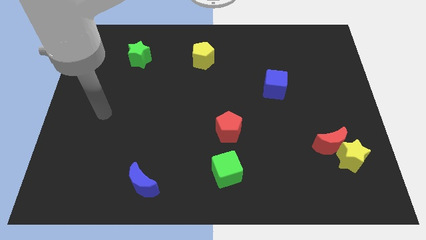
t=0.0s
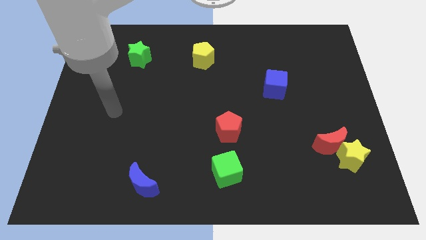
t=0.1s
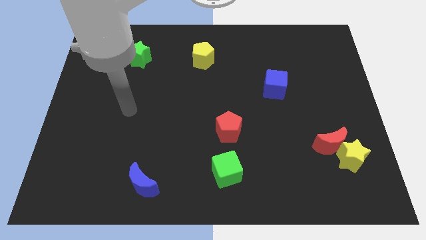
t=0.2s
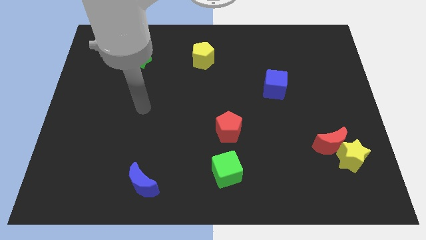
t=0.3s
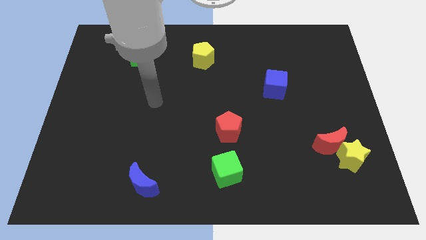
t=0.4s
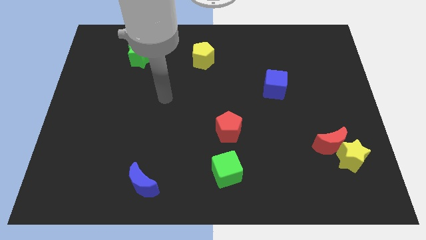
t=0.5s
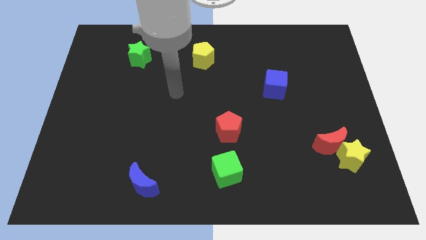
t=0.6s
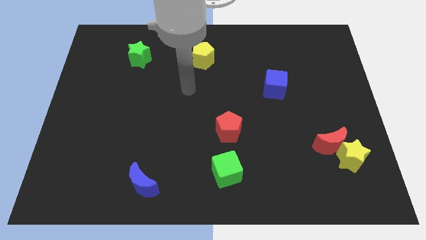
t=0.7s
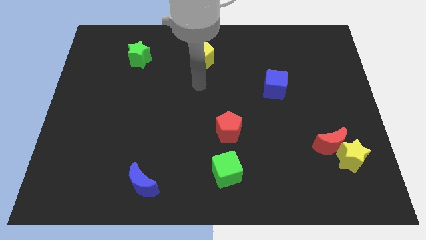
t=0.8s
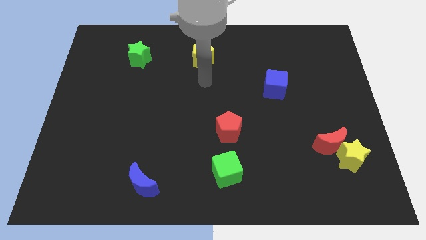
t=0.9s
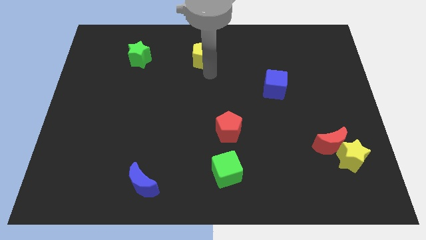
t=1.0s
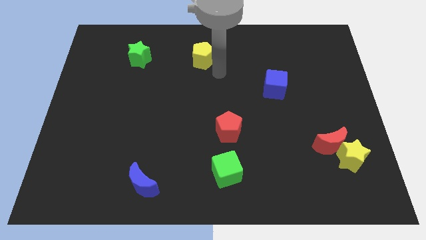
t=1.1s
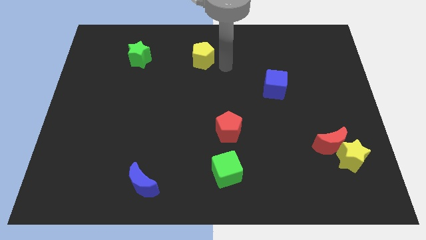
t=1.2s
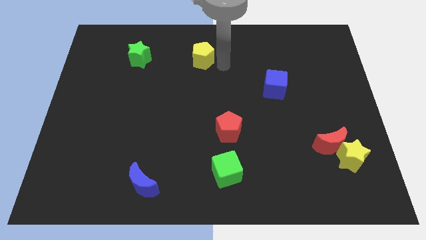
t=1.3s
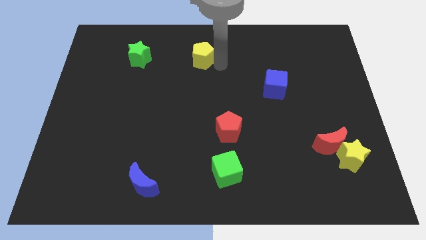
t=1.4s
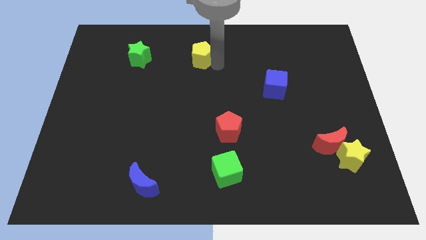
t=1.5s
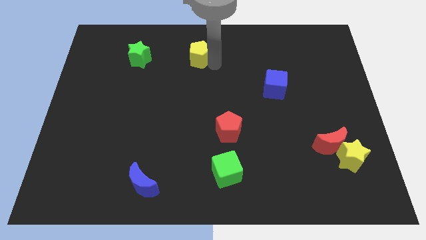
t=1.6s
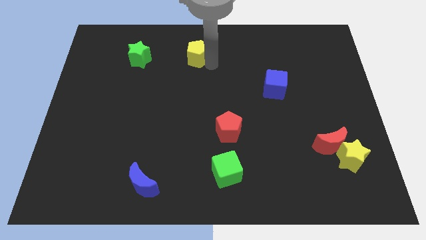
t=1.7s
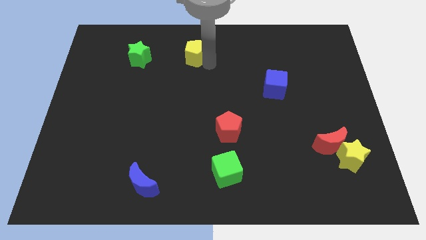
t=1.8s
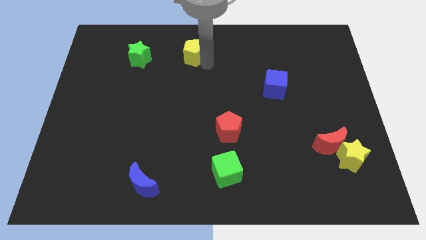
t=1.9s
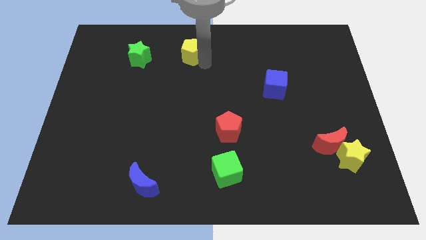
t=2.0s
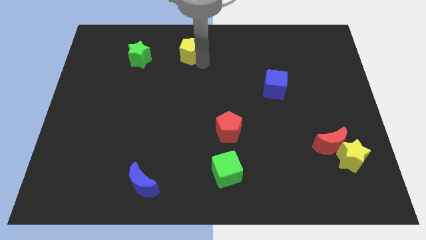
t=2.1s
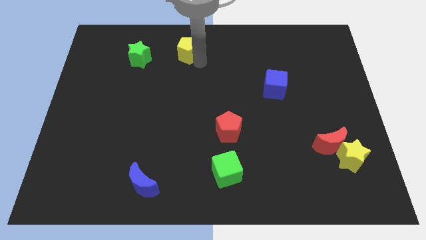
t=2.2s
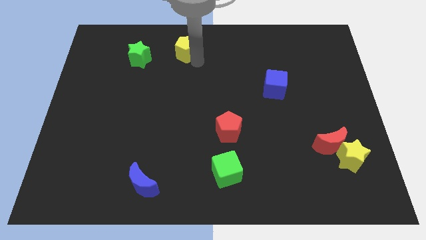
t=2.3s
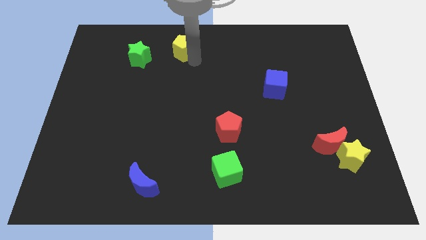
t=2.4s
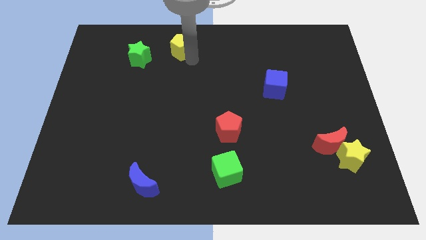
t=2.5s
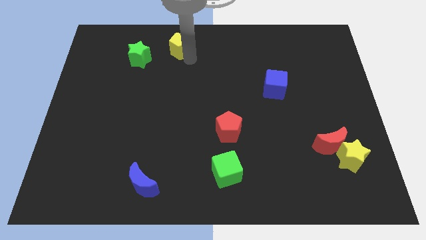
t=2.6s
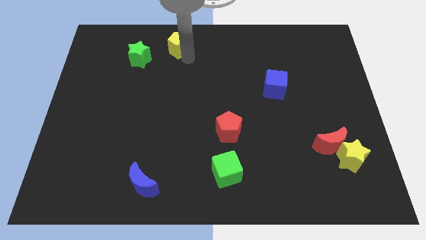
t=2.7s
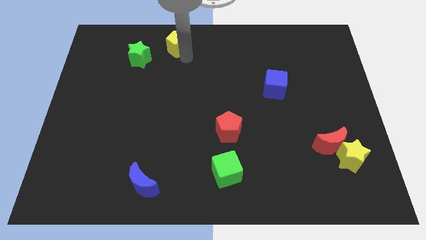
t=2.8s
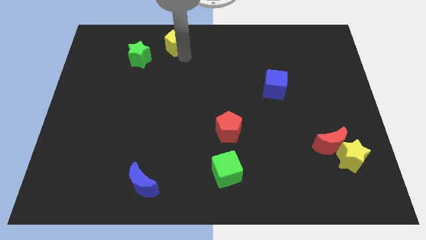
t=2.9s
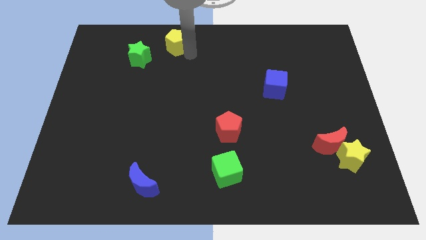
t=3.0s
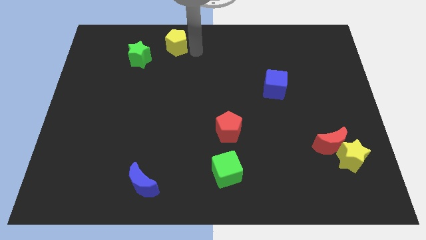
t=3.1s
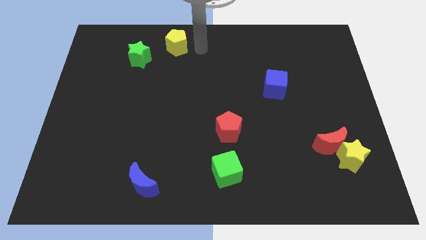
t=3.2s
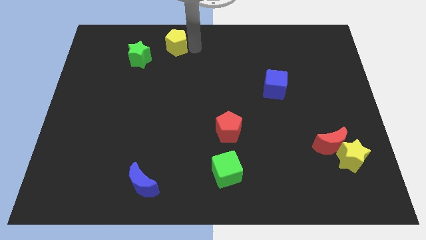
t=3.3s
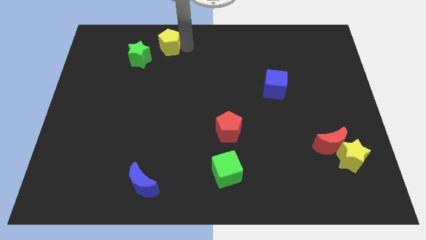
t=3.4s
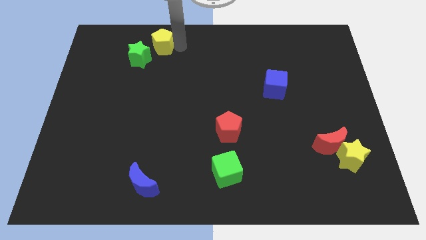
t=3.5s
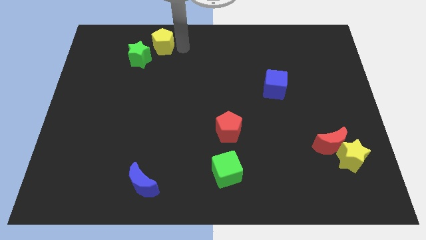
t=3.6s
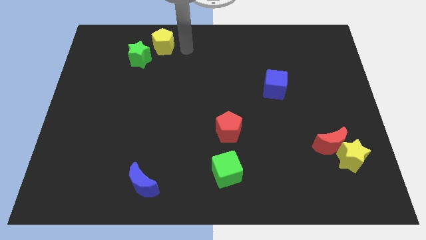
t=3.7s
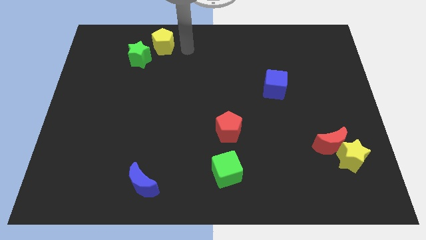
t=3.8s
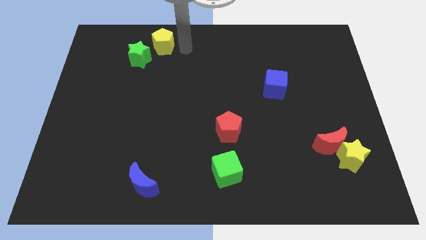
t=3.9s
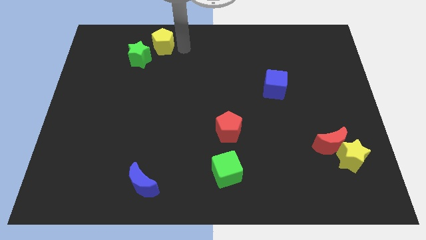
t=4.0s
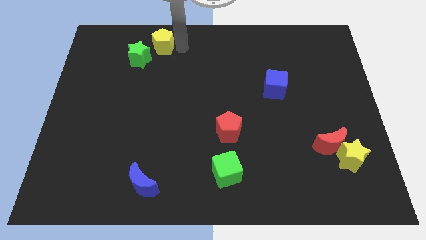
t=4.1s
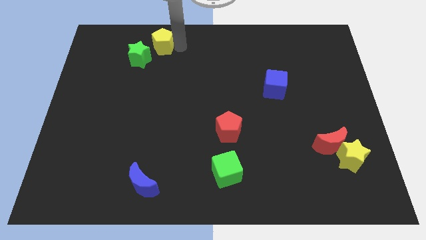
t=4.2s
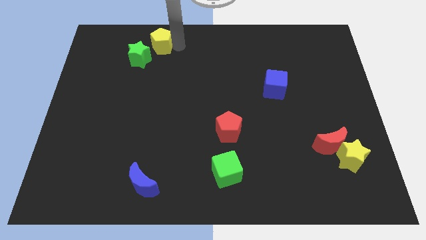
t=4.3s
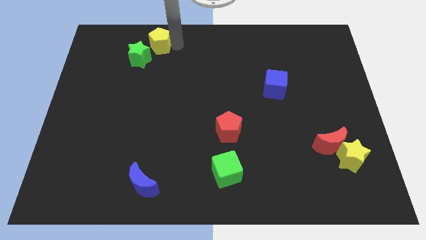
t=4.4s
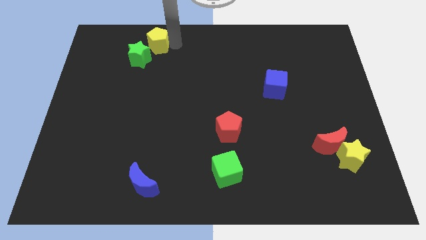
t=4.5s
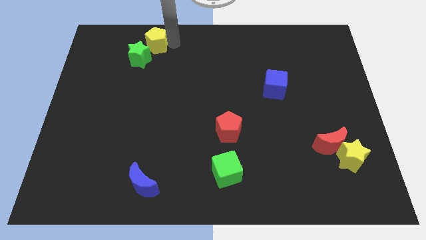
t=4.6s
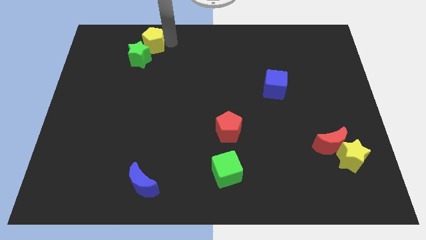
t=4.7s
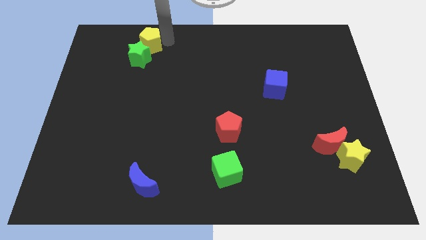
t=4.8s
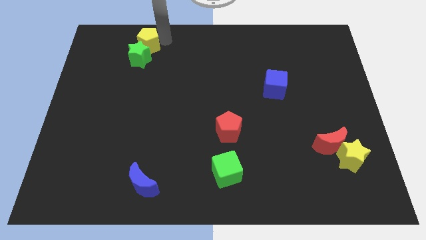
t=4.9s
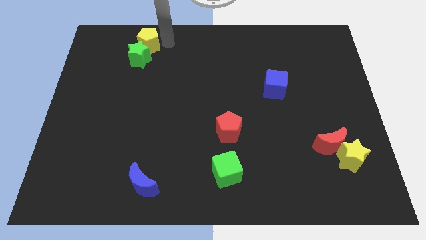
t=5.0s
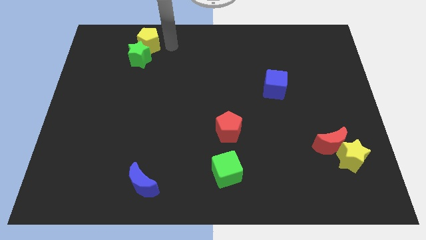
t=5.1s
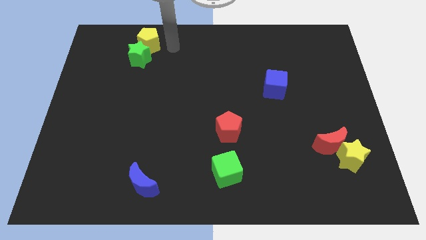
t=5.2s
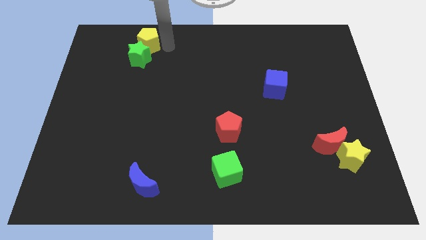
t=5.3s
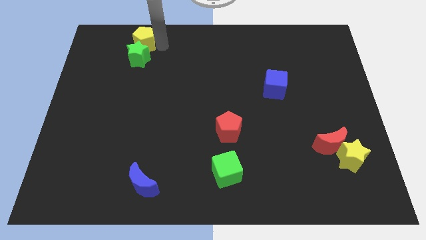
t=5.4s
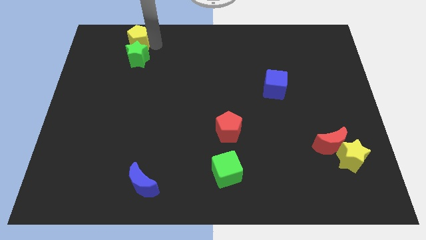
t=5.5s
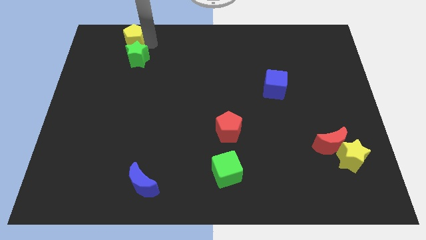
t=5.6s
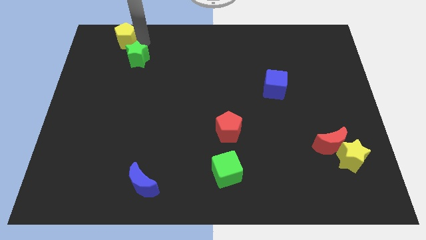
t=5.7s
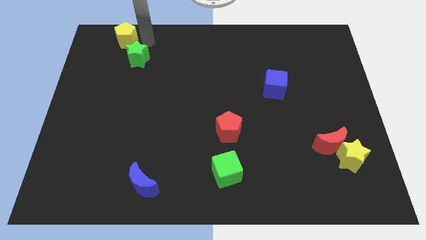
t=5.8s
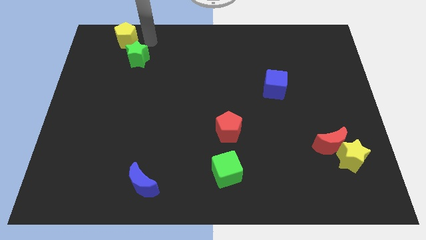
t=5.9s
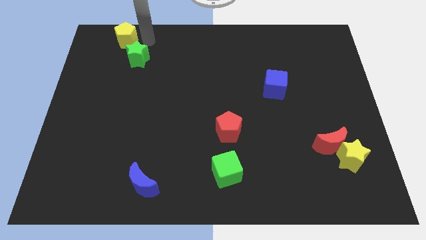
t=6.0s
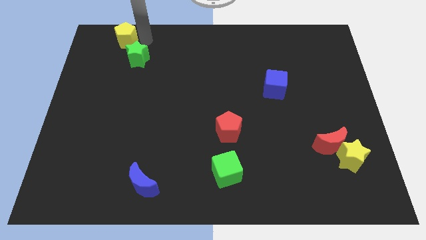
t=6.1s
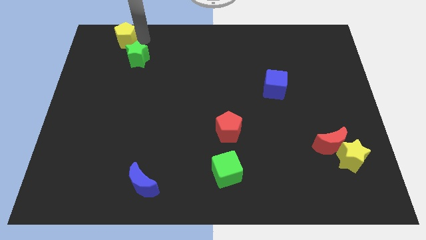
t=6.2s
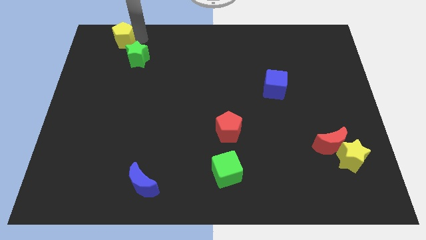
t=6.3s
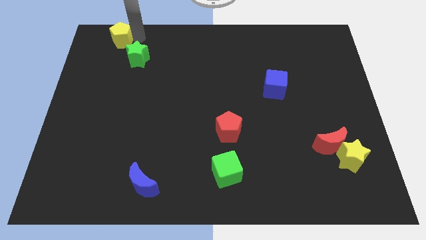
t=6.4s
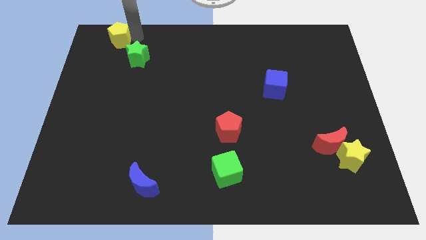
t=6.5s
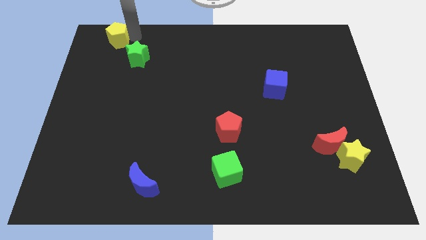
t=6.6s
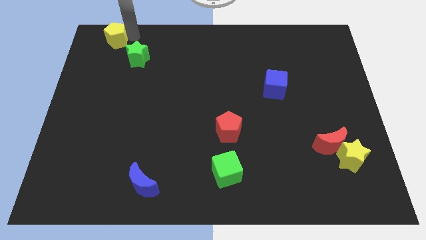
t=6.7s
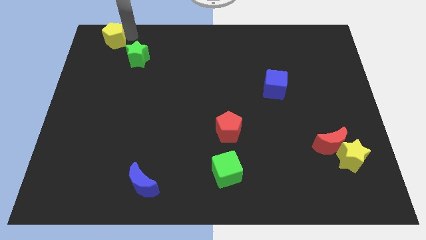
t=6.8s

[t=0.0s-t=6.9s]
push the yellow pentagon to the upper left corner

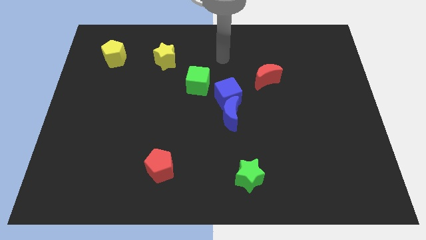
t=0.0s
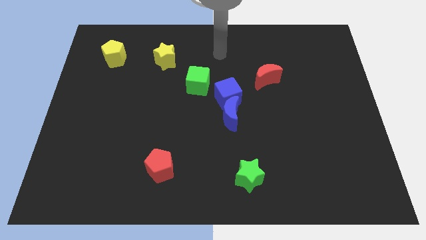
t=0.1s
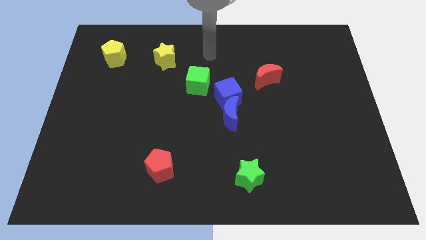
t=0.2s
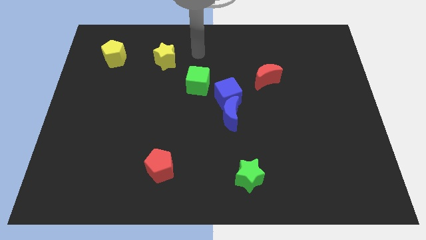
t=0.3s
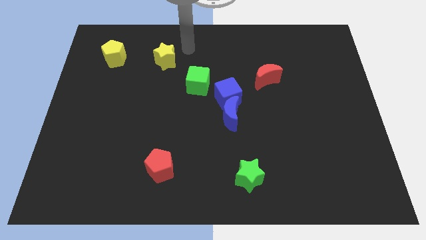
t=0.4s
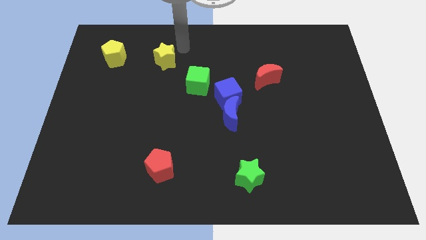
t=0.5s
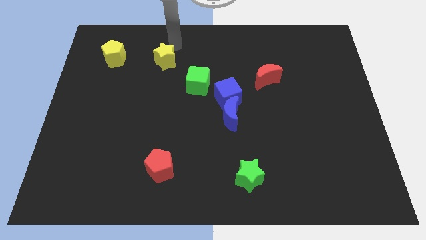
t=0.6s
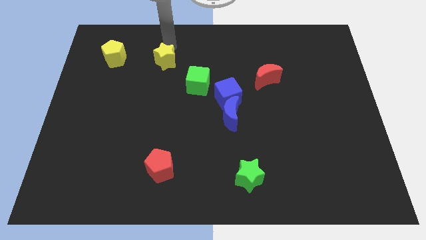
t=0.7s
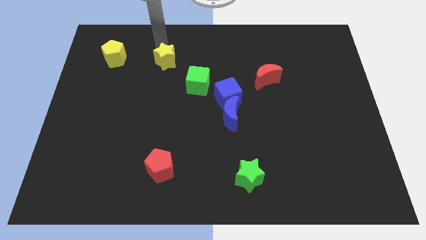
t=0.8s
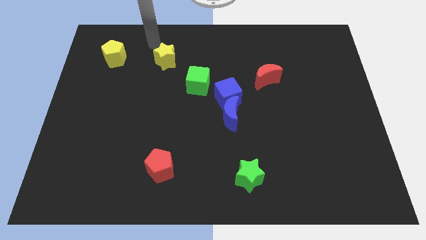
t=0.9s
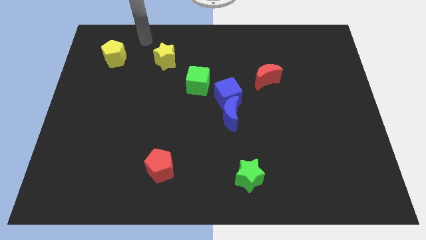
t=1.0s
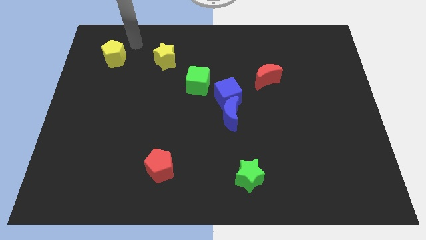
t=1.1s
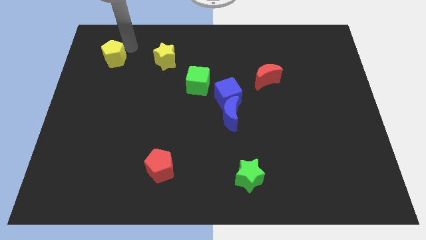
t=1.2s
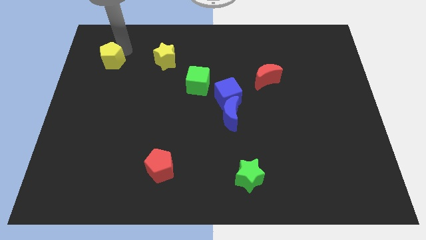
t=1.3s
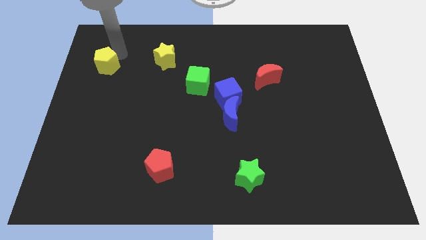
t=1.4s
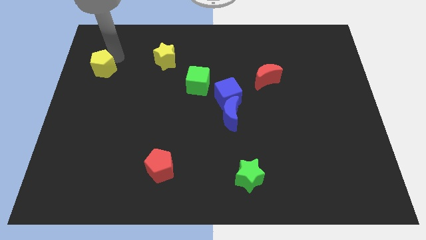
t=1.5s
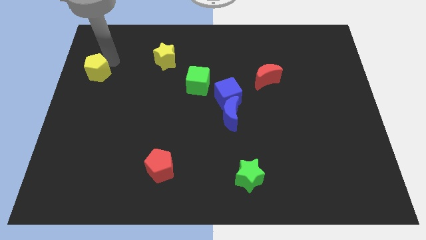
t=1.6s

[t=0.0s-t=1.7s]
slide the yellow pentagon to the left side
